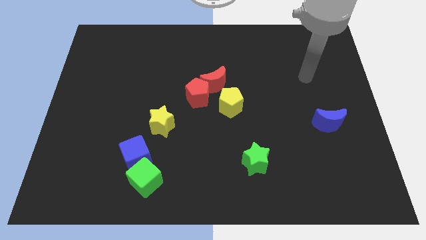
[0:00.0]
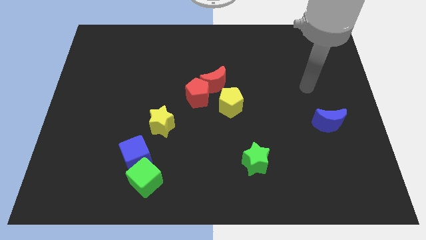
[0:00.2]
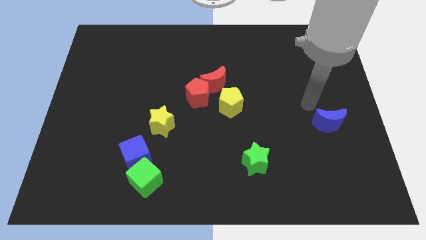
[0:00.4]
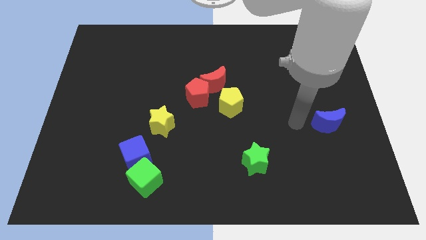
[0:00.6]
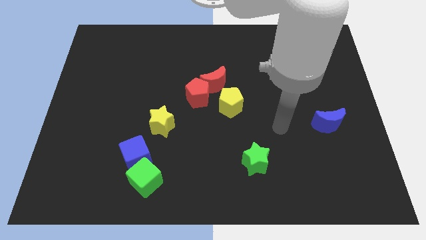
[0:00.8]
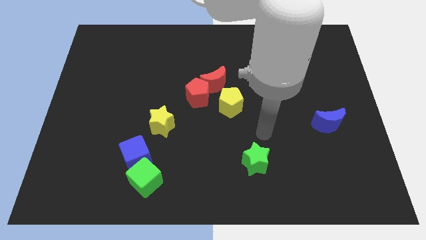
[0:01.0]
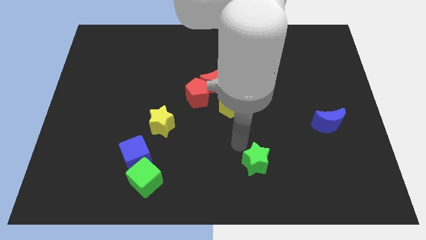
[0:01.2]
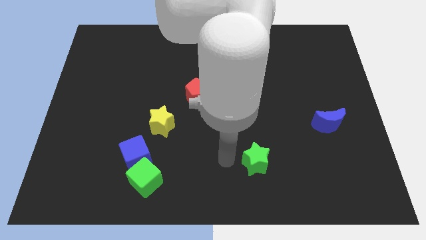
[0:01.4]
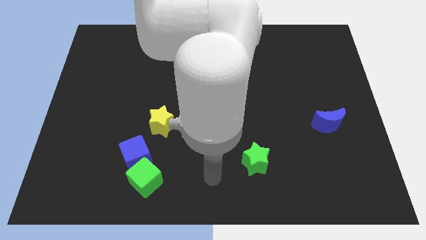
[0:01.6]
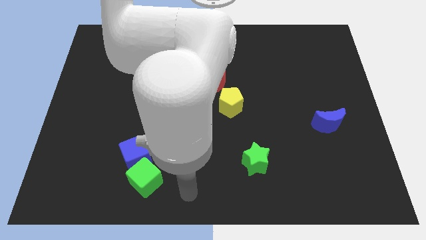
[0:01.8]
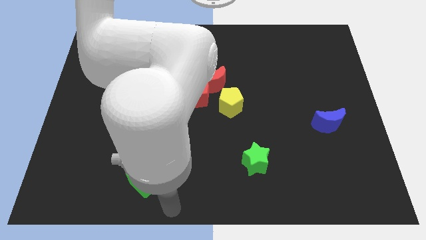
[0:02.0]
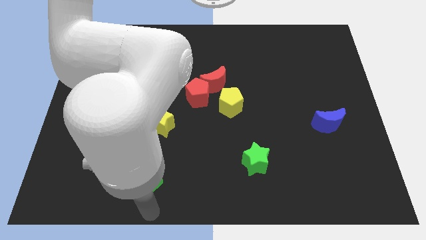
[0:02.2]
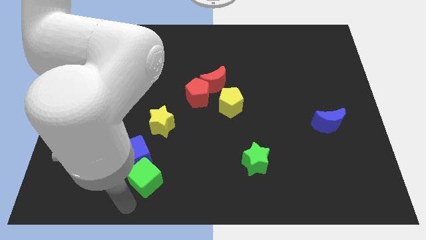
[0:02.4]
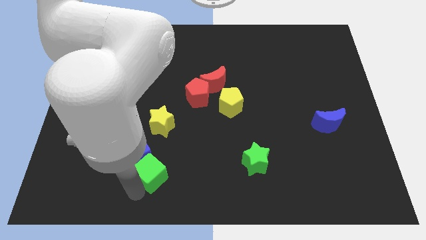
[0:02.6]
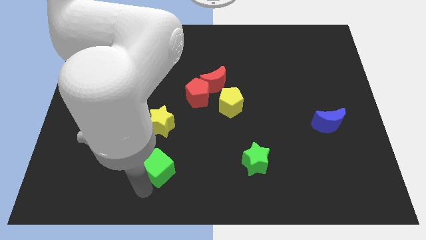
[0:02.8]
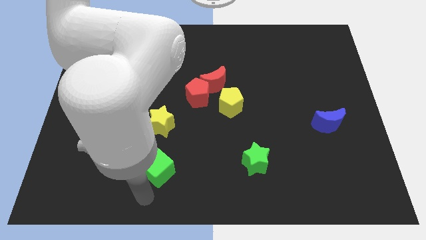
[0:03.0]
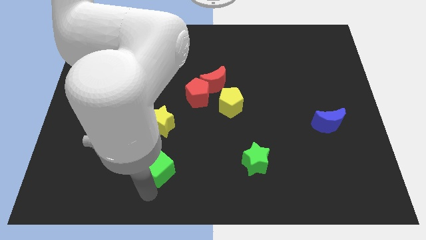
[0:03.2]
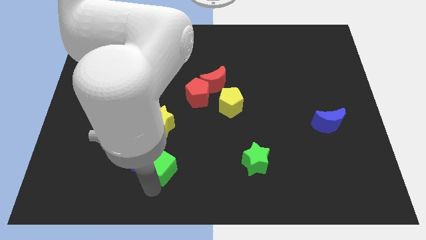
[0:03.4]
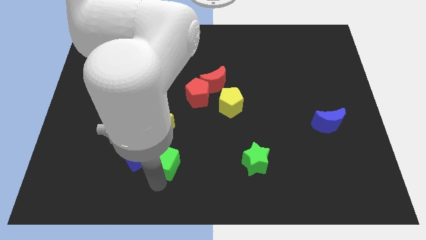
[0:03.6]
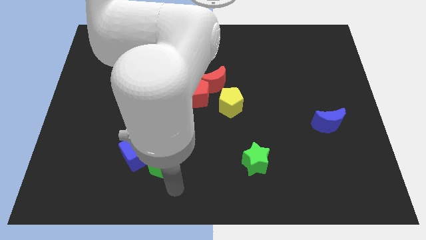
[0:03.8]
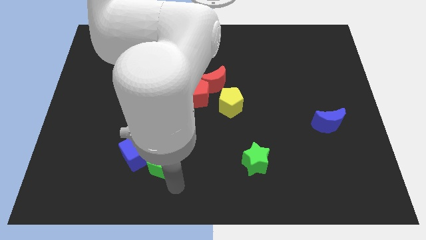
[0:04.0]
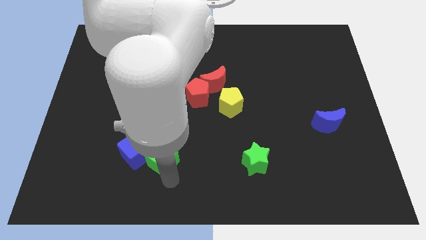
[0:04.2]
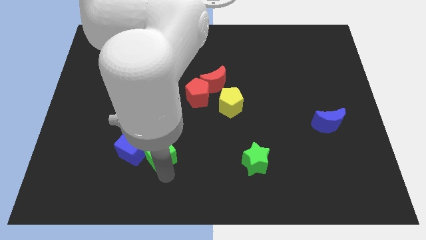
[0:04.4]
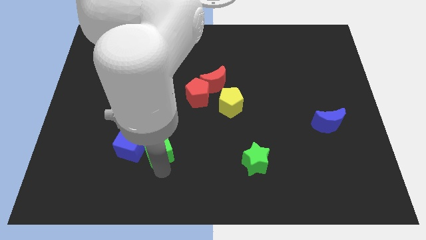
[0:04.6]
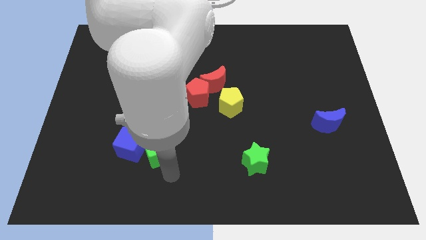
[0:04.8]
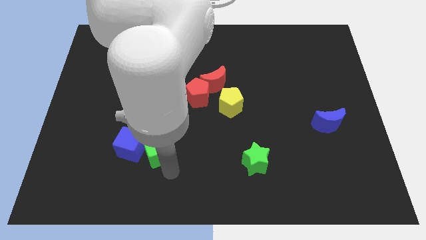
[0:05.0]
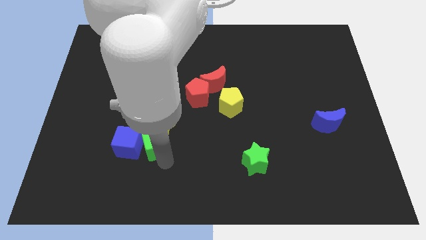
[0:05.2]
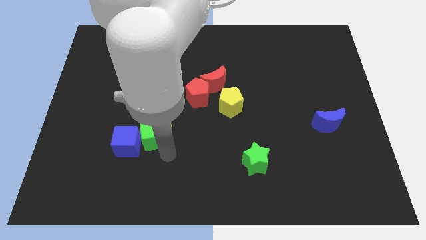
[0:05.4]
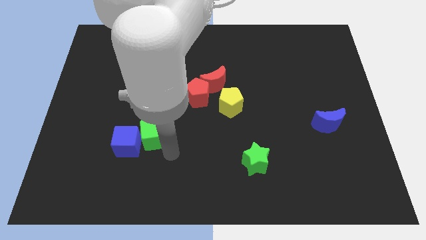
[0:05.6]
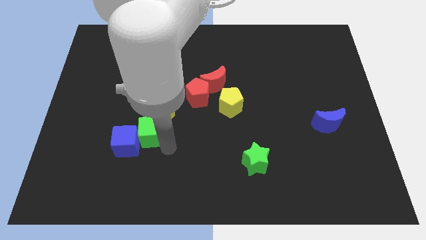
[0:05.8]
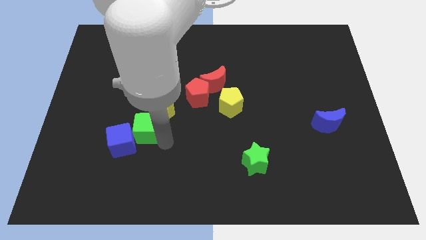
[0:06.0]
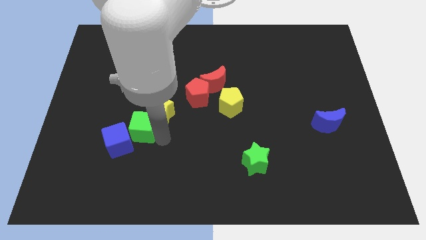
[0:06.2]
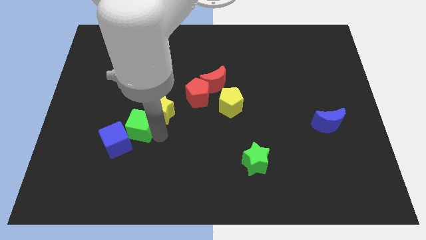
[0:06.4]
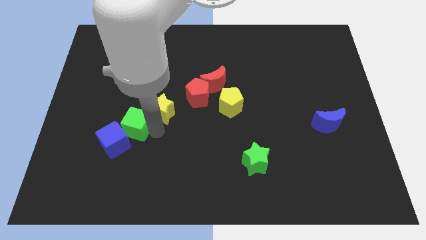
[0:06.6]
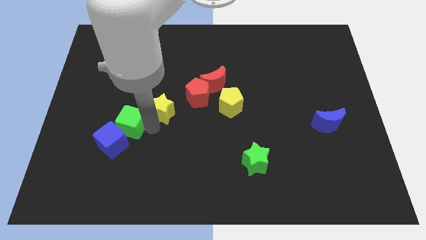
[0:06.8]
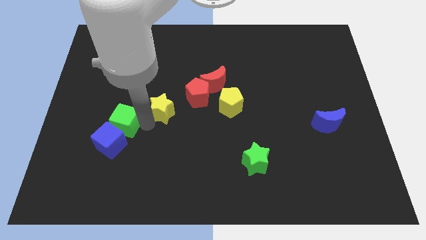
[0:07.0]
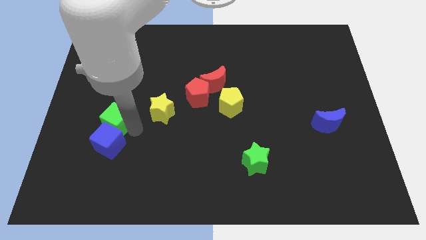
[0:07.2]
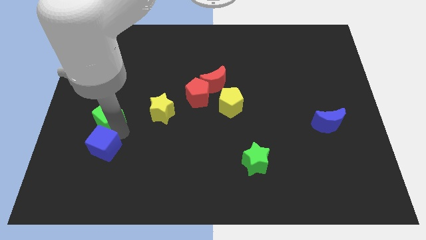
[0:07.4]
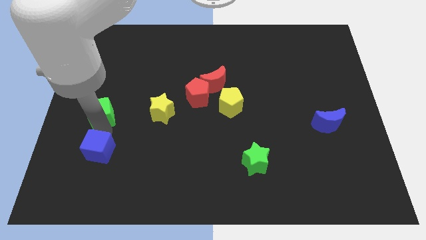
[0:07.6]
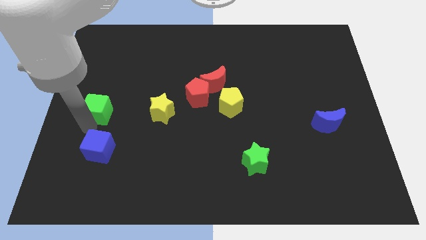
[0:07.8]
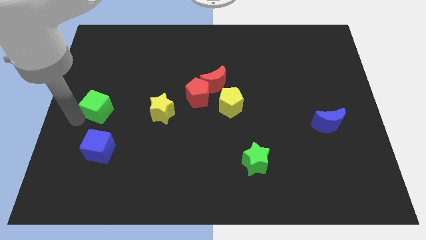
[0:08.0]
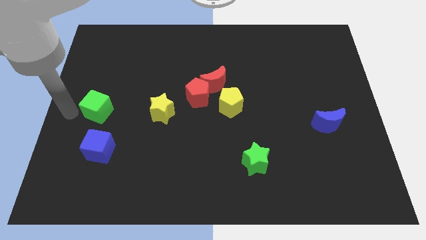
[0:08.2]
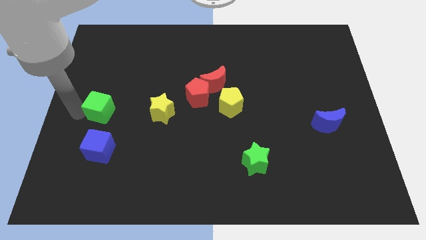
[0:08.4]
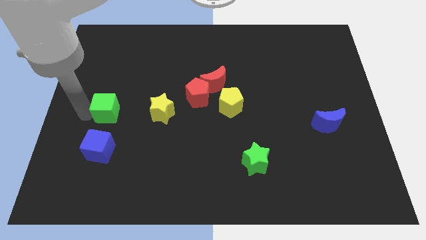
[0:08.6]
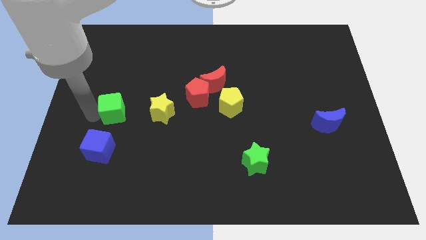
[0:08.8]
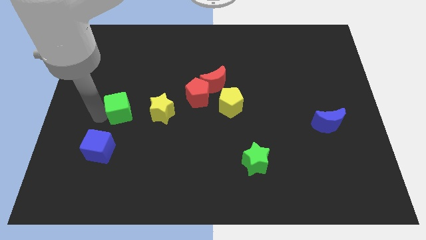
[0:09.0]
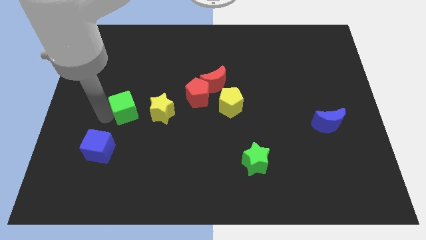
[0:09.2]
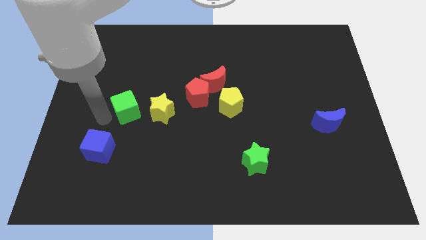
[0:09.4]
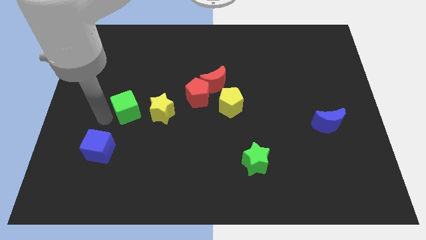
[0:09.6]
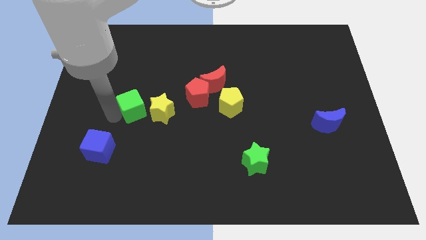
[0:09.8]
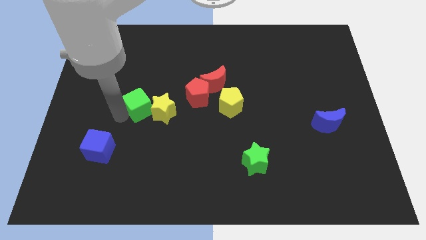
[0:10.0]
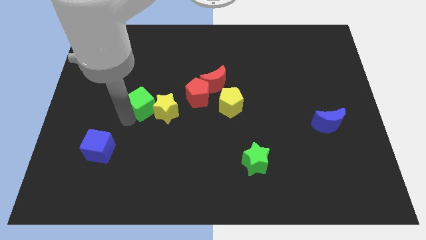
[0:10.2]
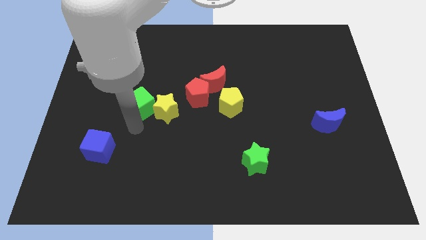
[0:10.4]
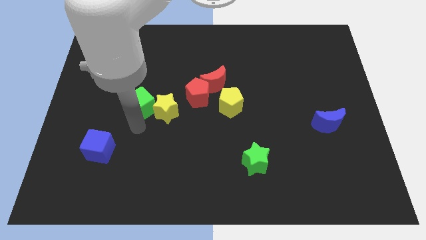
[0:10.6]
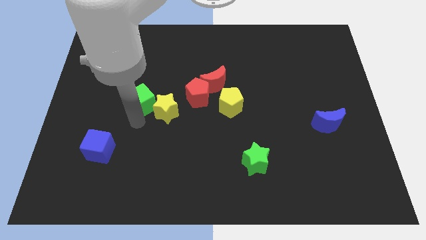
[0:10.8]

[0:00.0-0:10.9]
slide the green cube up

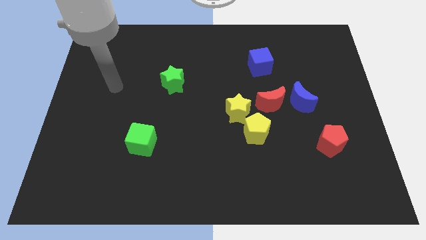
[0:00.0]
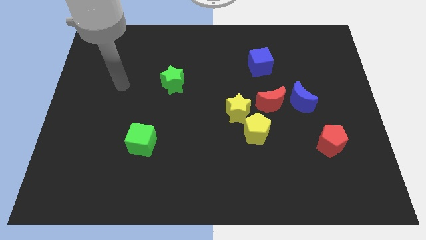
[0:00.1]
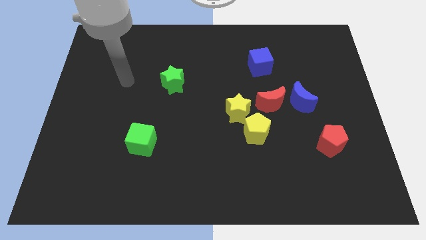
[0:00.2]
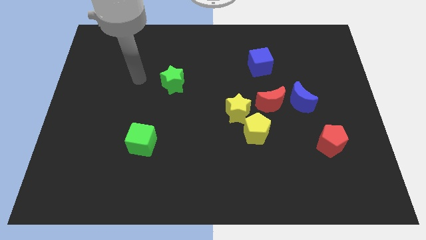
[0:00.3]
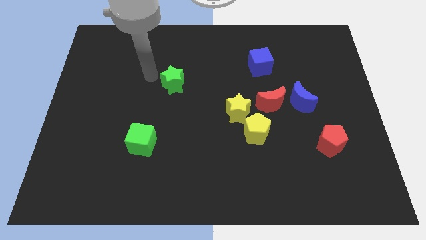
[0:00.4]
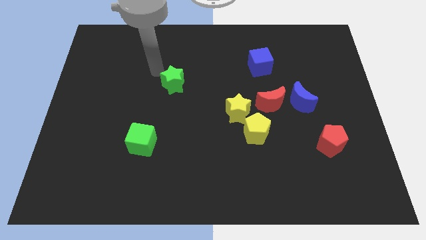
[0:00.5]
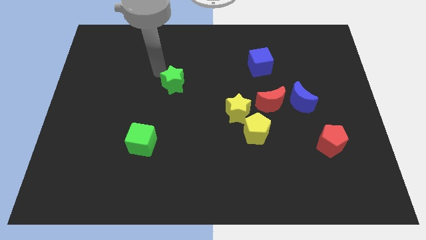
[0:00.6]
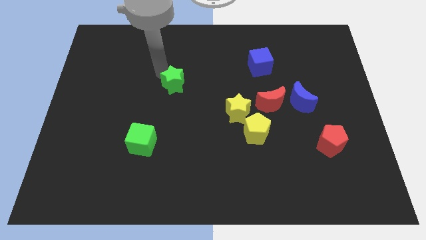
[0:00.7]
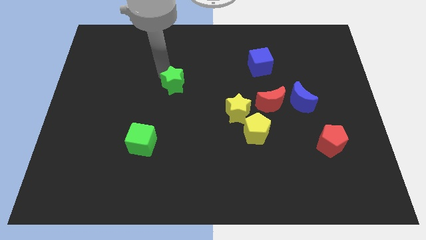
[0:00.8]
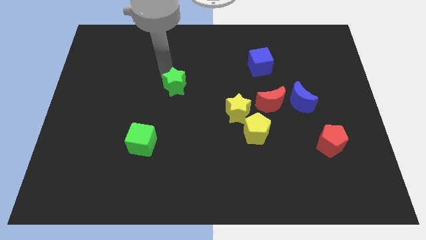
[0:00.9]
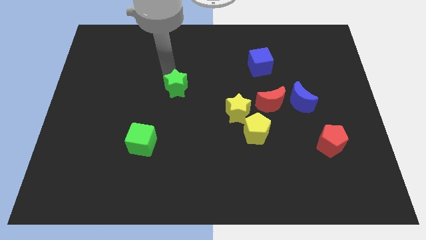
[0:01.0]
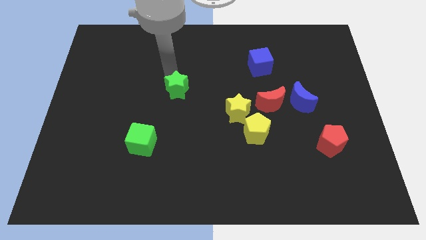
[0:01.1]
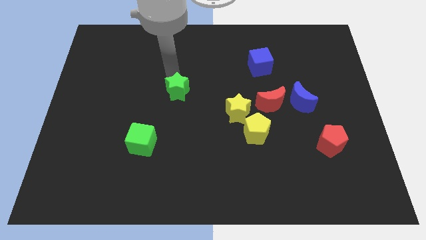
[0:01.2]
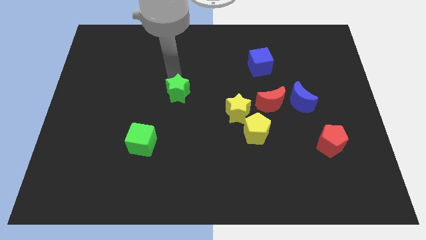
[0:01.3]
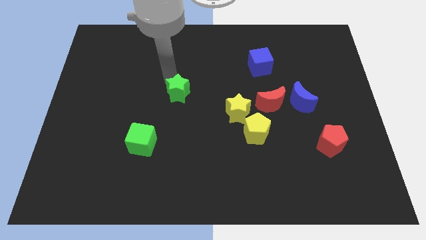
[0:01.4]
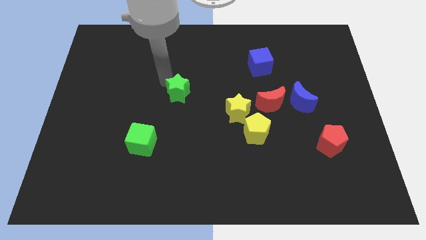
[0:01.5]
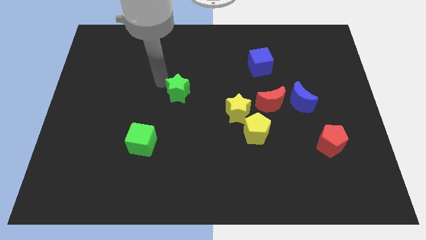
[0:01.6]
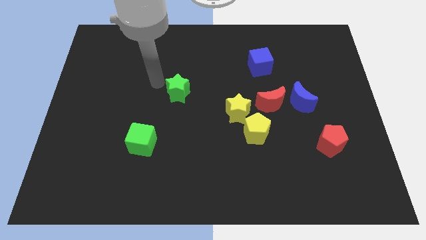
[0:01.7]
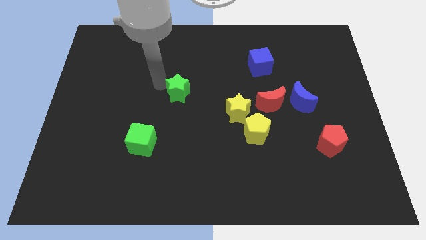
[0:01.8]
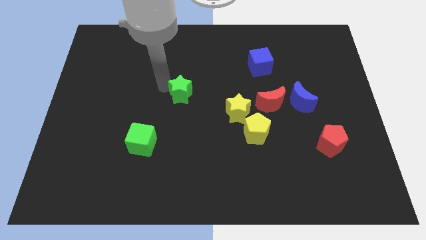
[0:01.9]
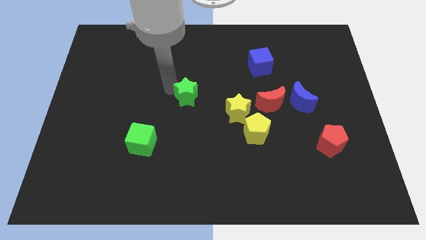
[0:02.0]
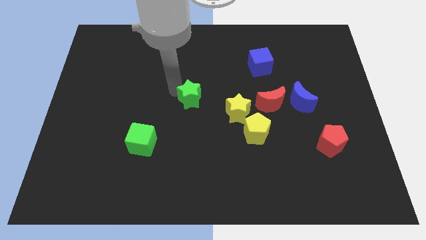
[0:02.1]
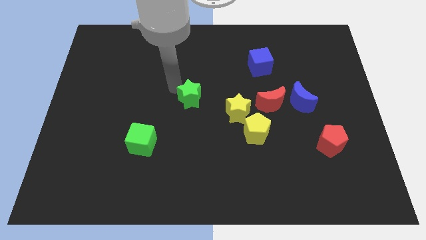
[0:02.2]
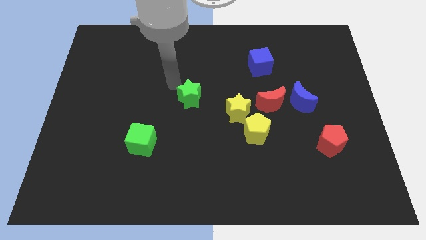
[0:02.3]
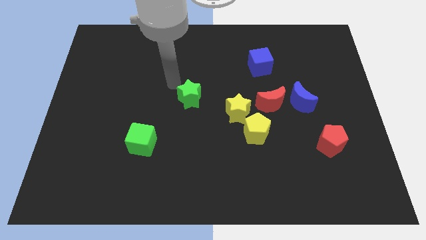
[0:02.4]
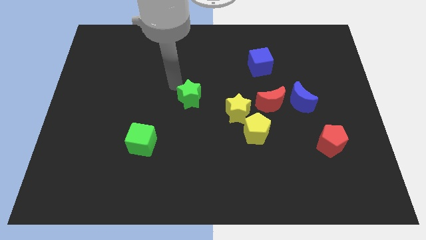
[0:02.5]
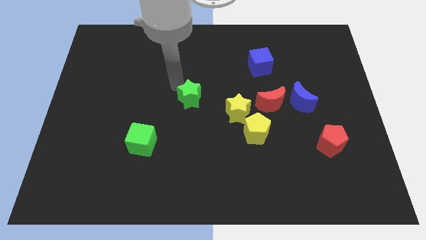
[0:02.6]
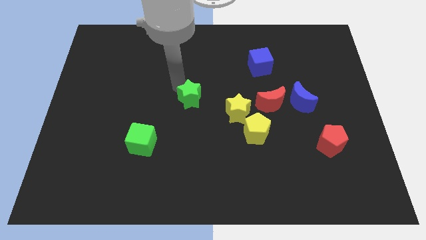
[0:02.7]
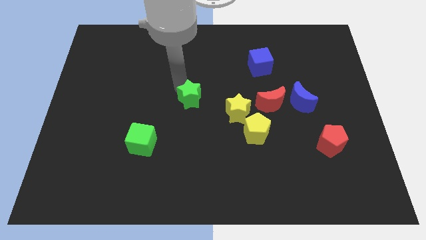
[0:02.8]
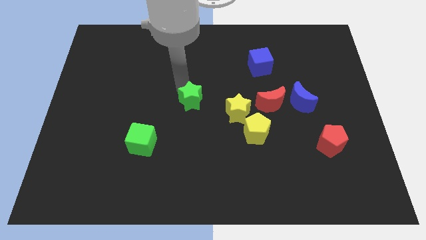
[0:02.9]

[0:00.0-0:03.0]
slightly move the green star downwards and to the right diagonally
